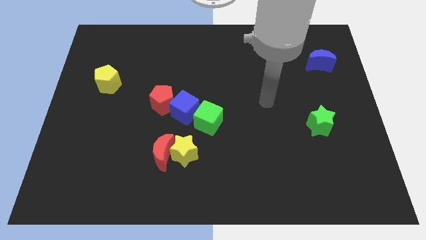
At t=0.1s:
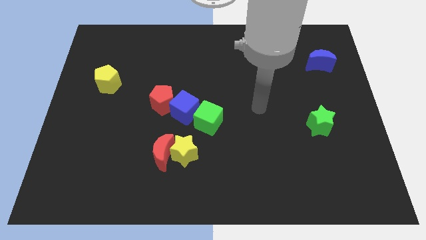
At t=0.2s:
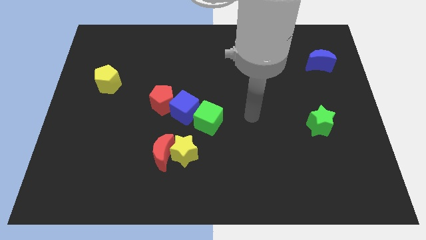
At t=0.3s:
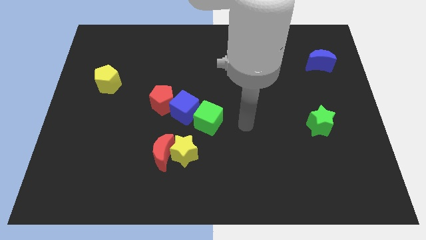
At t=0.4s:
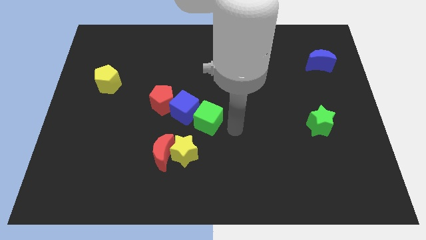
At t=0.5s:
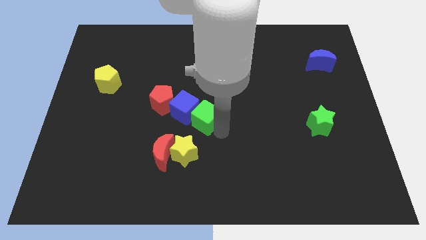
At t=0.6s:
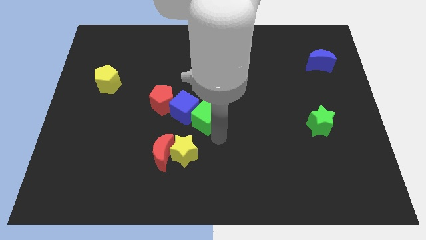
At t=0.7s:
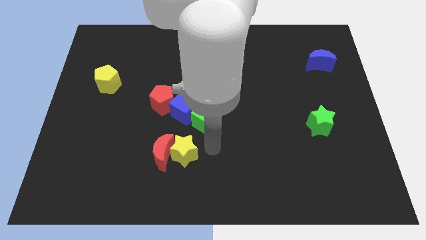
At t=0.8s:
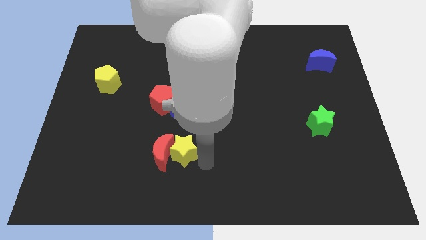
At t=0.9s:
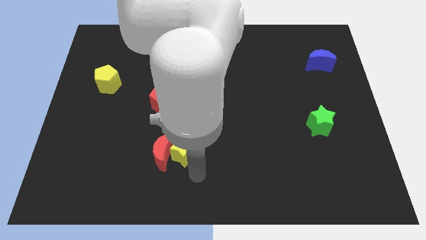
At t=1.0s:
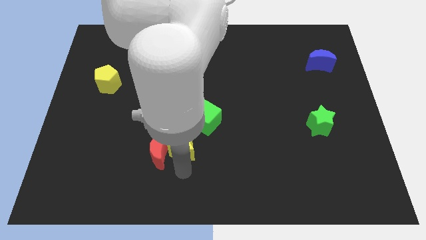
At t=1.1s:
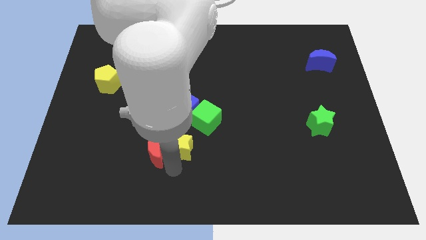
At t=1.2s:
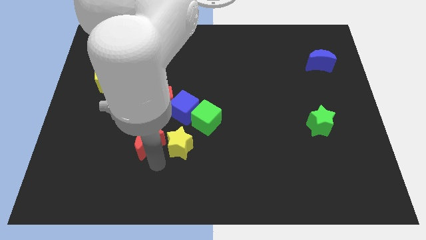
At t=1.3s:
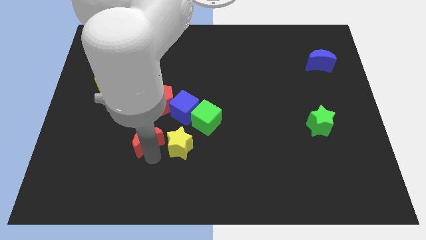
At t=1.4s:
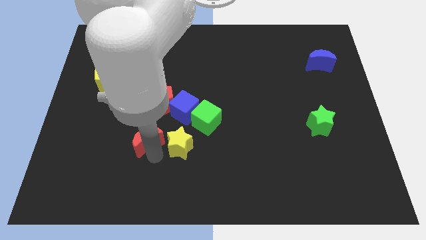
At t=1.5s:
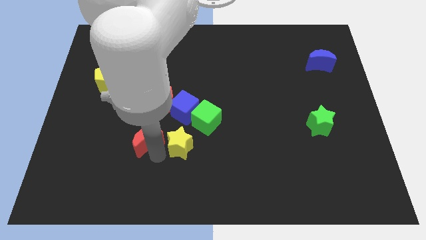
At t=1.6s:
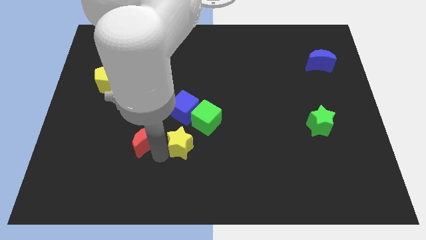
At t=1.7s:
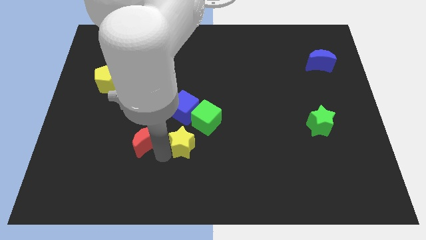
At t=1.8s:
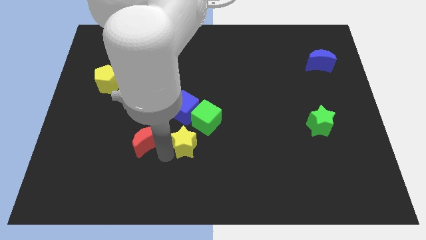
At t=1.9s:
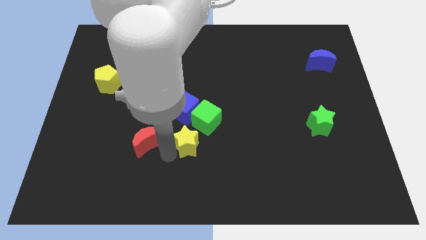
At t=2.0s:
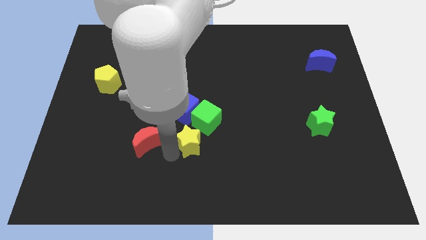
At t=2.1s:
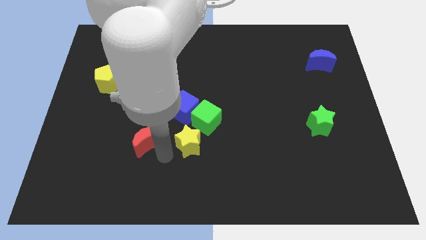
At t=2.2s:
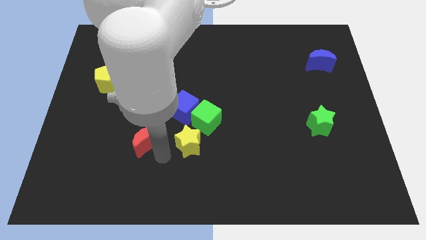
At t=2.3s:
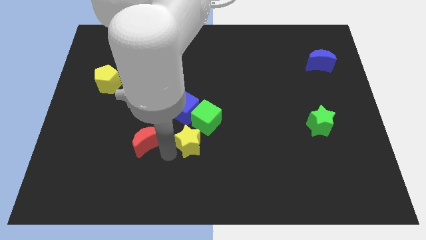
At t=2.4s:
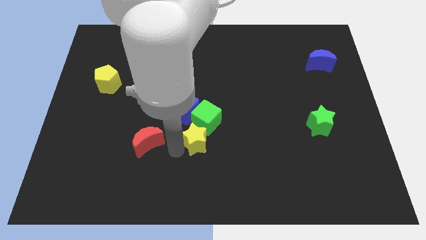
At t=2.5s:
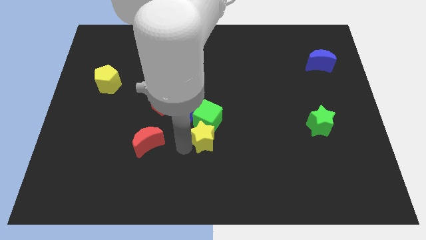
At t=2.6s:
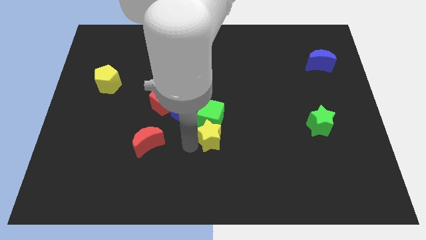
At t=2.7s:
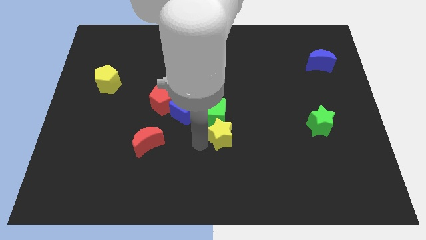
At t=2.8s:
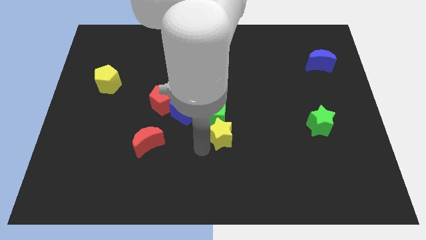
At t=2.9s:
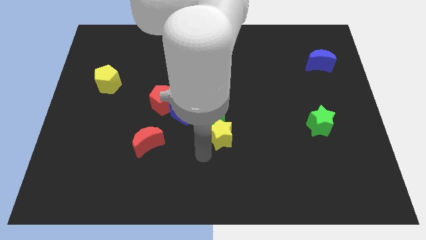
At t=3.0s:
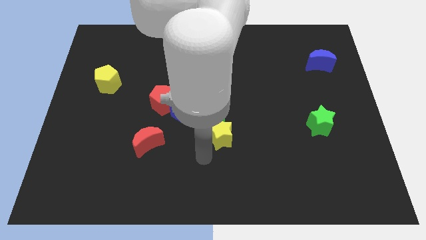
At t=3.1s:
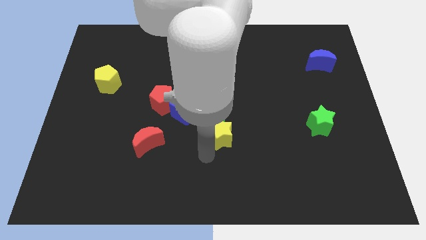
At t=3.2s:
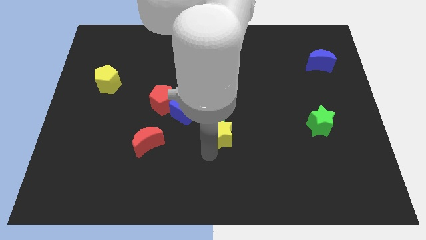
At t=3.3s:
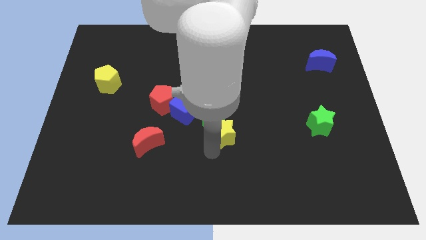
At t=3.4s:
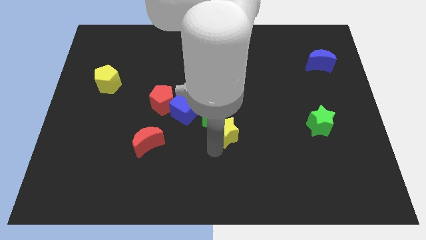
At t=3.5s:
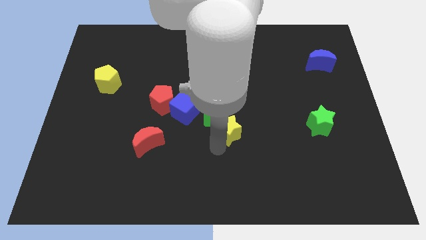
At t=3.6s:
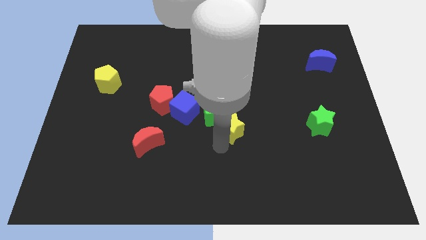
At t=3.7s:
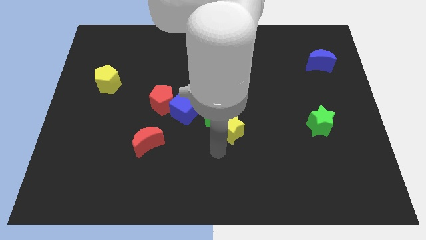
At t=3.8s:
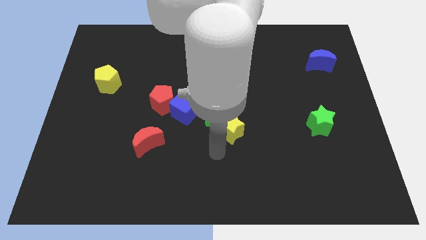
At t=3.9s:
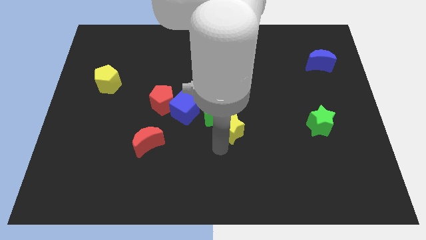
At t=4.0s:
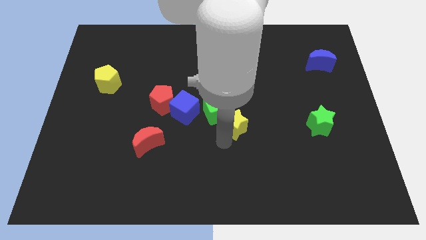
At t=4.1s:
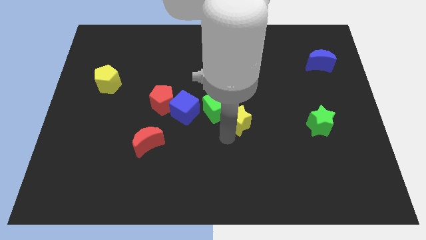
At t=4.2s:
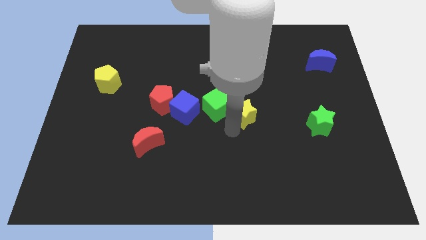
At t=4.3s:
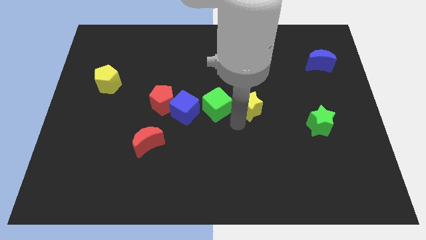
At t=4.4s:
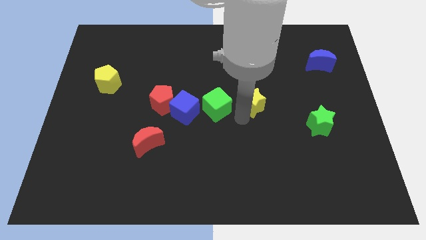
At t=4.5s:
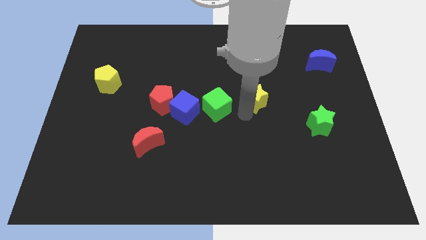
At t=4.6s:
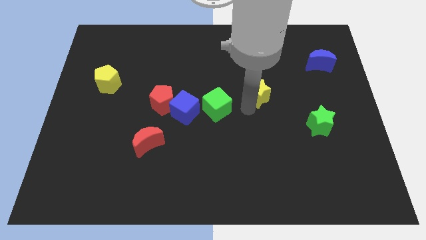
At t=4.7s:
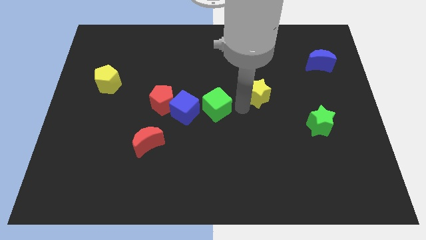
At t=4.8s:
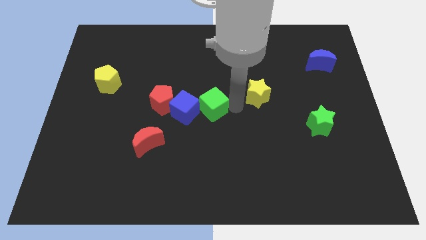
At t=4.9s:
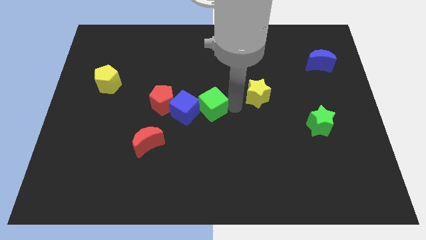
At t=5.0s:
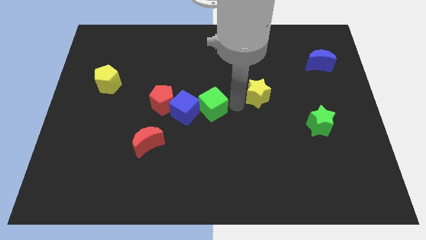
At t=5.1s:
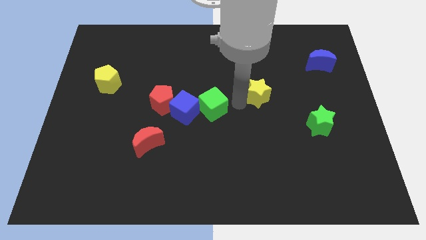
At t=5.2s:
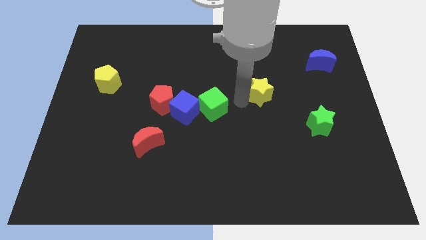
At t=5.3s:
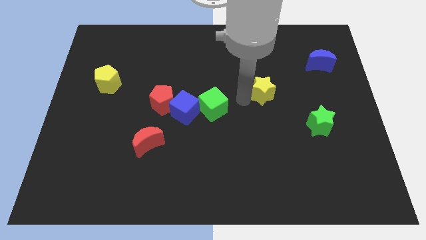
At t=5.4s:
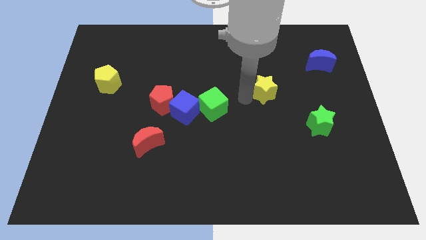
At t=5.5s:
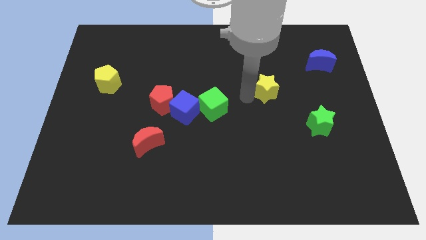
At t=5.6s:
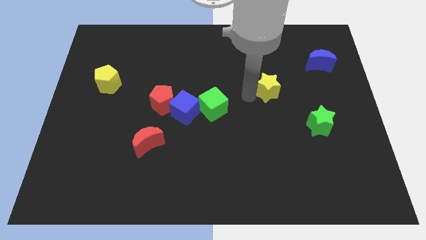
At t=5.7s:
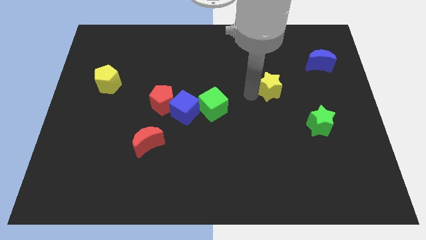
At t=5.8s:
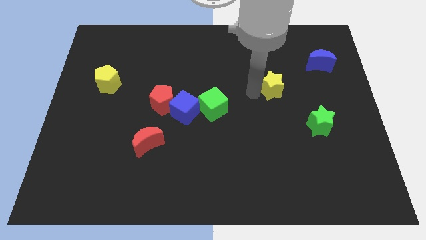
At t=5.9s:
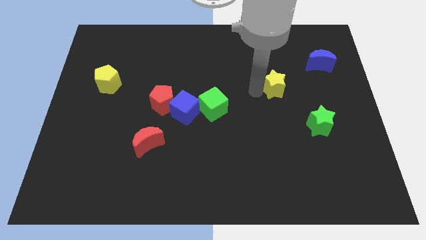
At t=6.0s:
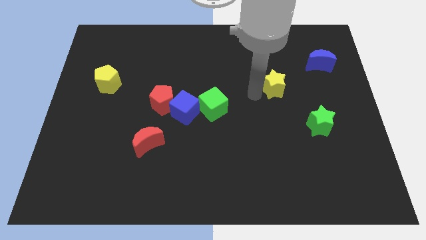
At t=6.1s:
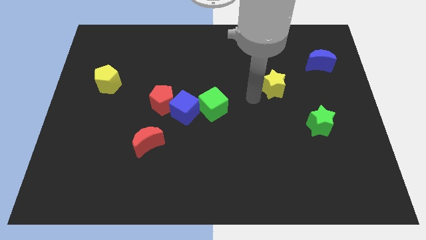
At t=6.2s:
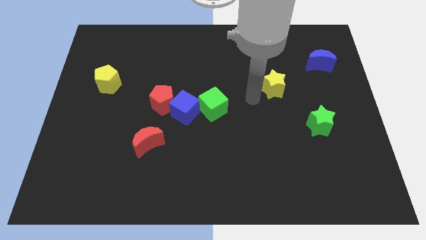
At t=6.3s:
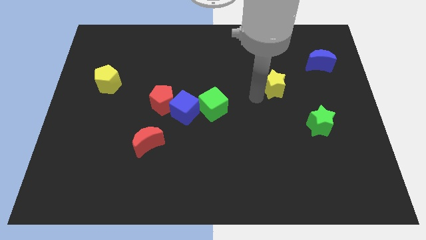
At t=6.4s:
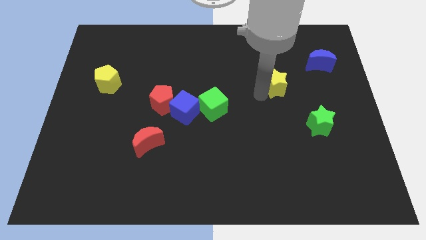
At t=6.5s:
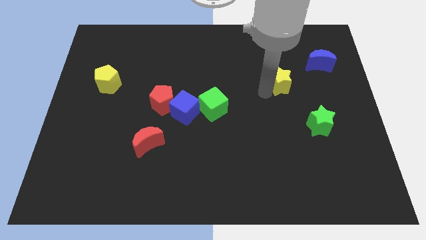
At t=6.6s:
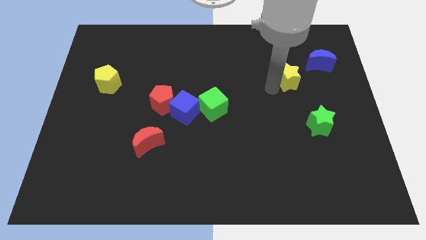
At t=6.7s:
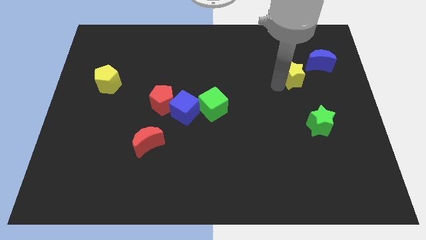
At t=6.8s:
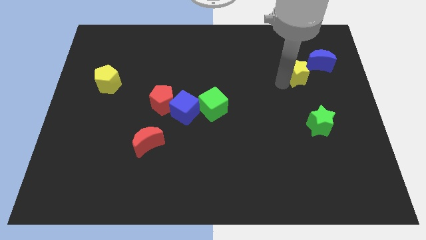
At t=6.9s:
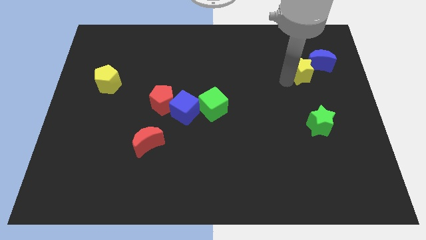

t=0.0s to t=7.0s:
move the yellow star next to the blue moon
